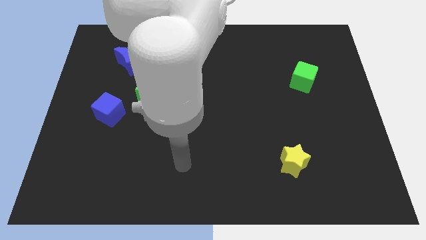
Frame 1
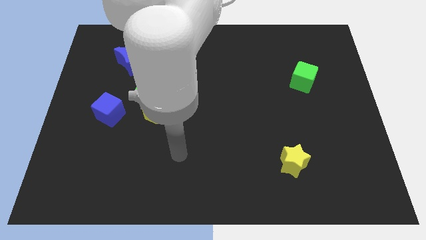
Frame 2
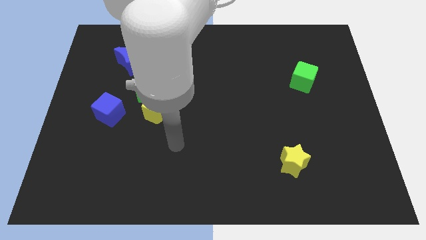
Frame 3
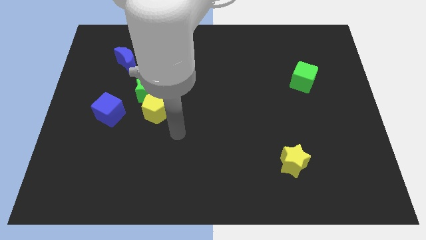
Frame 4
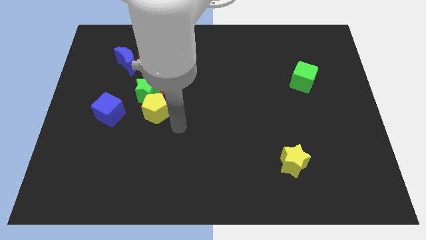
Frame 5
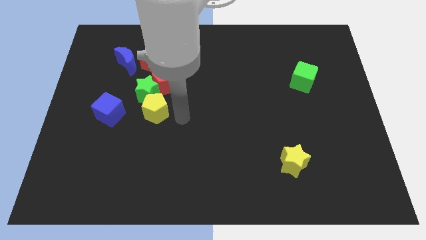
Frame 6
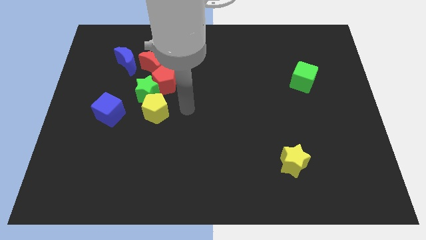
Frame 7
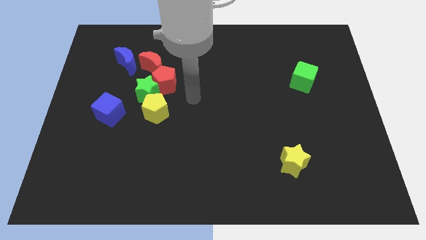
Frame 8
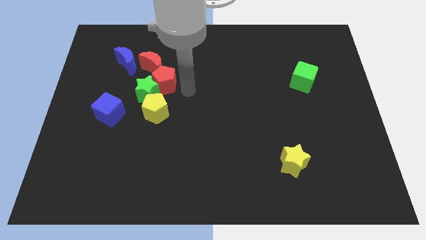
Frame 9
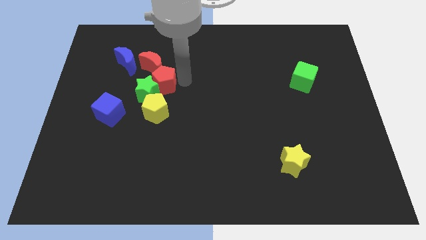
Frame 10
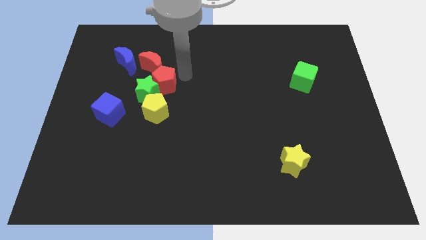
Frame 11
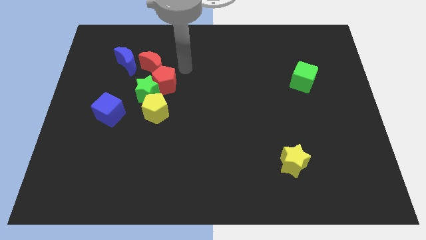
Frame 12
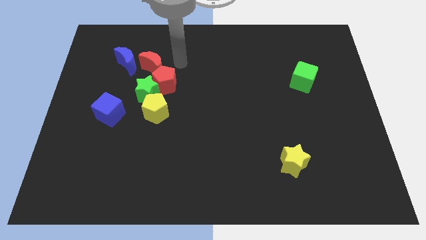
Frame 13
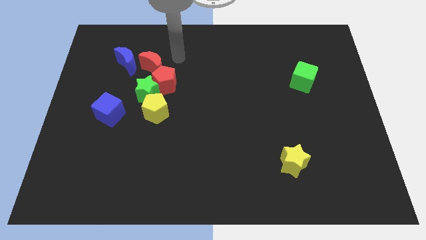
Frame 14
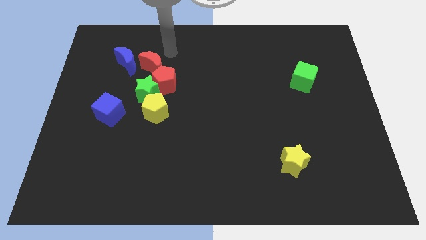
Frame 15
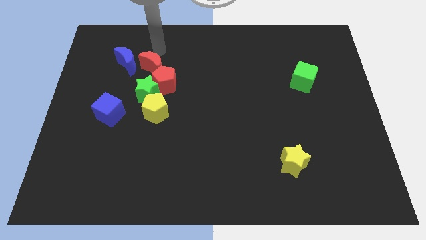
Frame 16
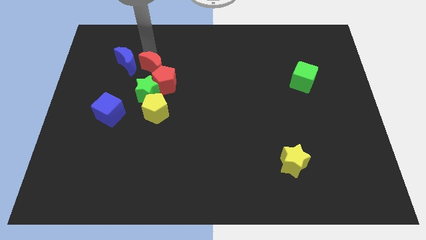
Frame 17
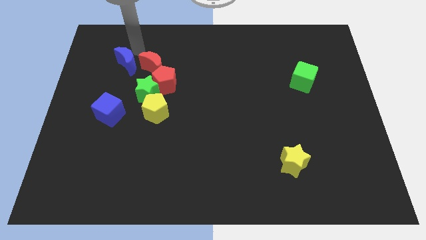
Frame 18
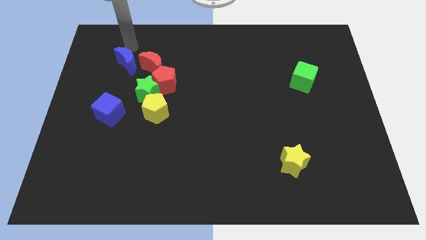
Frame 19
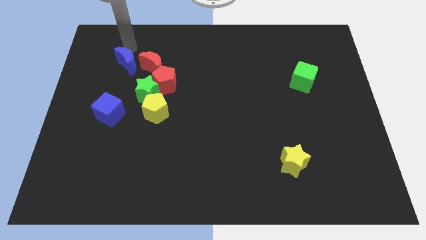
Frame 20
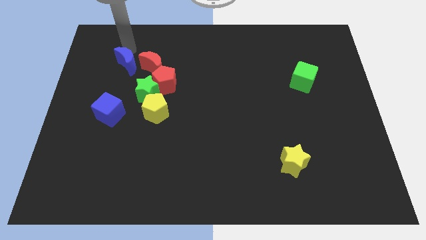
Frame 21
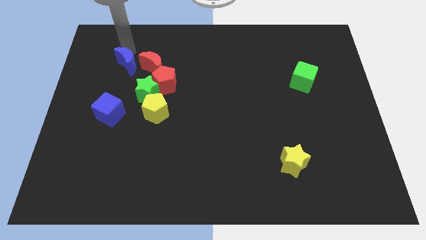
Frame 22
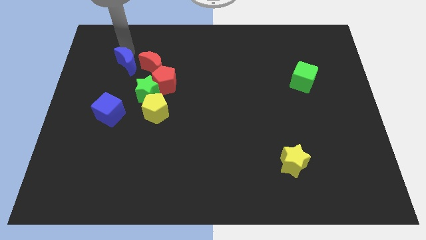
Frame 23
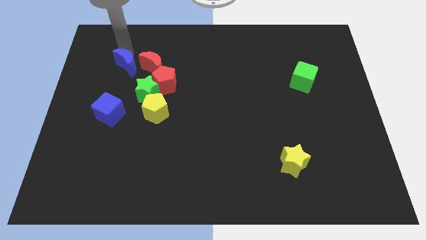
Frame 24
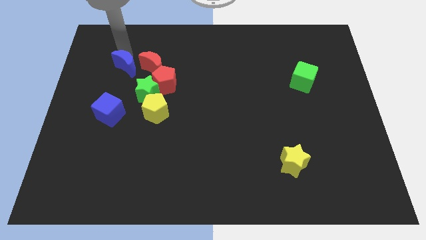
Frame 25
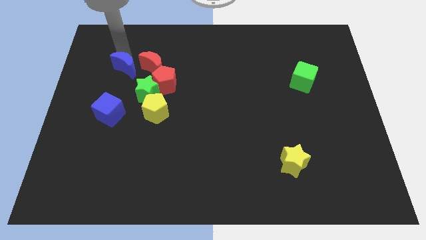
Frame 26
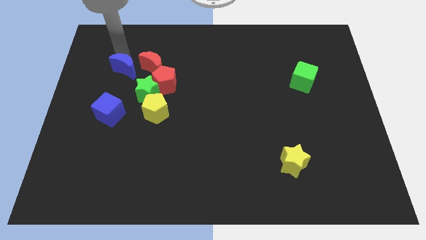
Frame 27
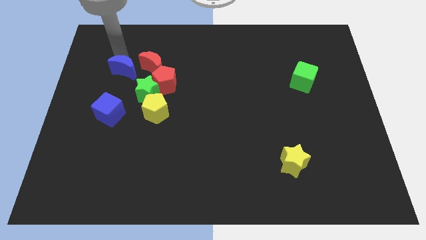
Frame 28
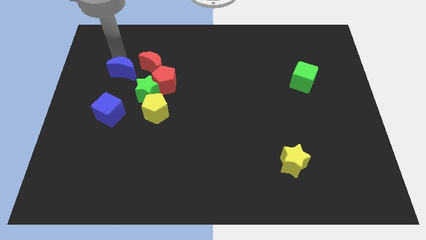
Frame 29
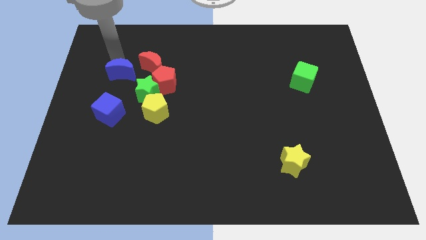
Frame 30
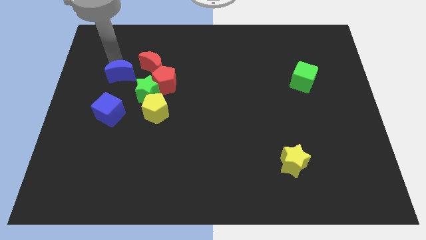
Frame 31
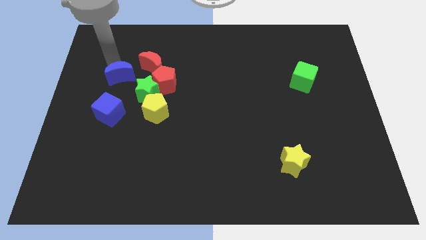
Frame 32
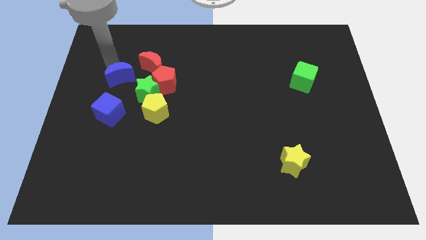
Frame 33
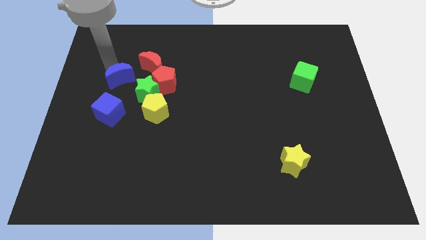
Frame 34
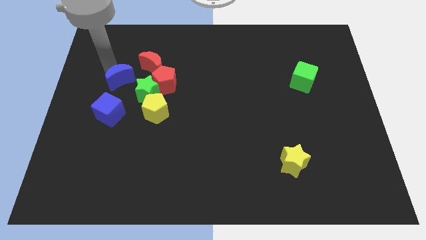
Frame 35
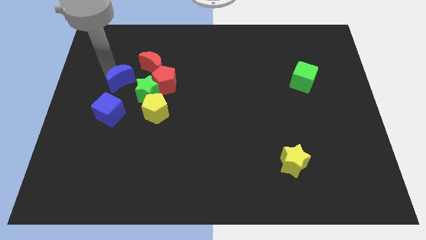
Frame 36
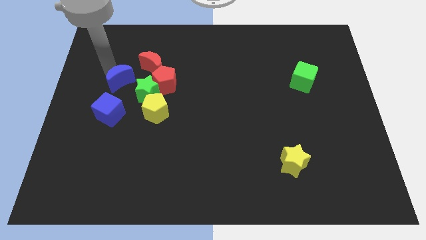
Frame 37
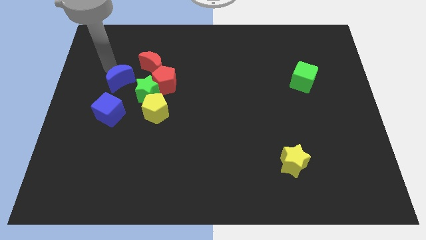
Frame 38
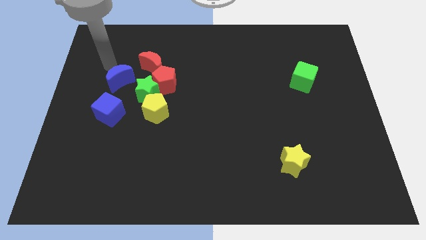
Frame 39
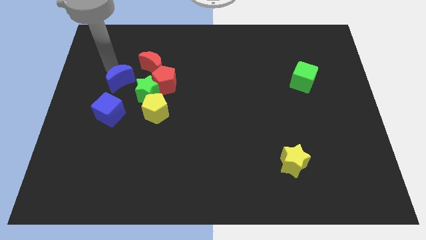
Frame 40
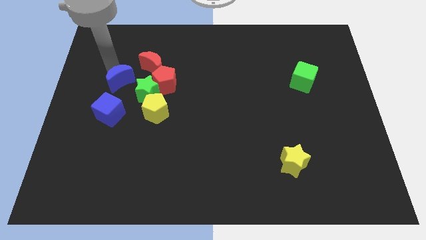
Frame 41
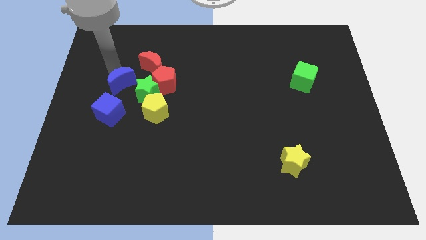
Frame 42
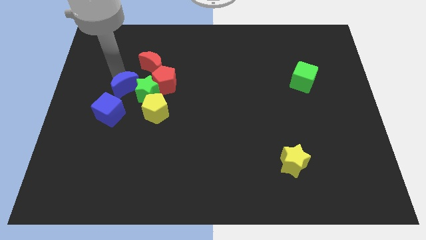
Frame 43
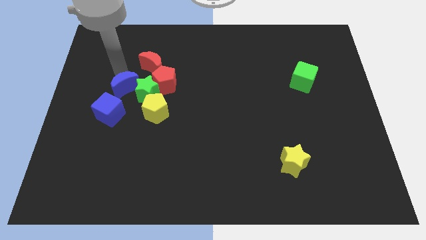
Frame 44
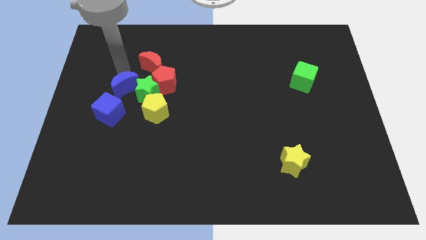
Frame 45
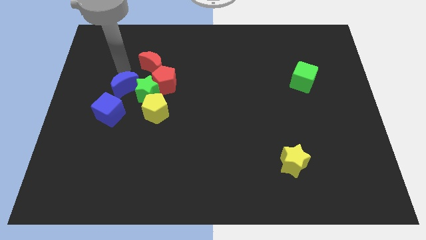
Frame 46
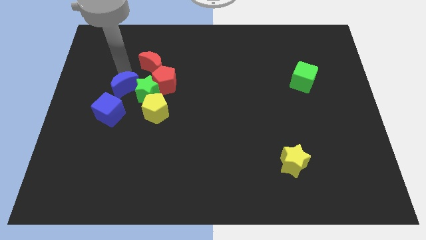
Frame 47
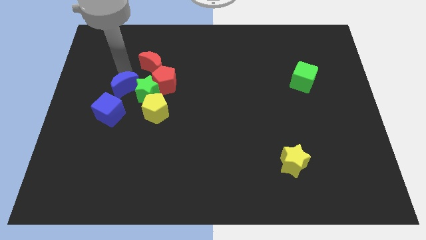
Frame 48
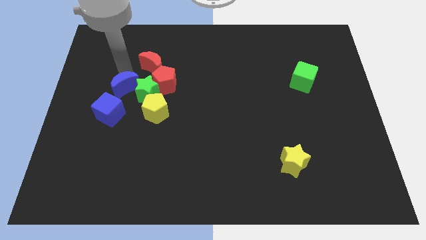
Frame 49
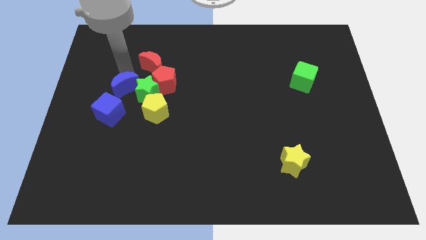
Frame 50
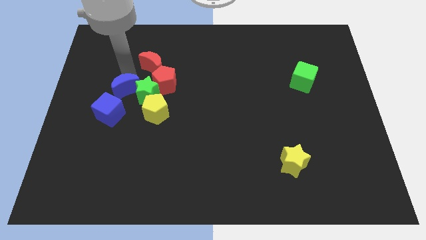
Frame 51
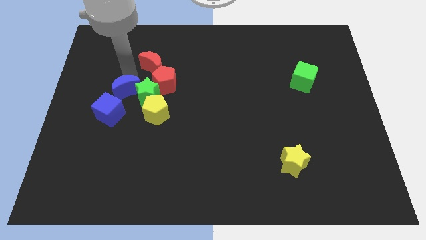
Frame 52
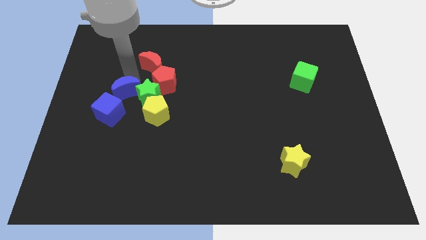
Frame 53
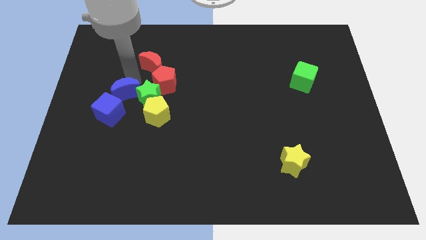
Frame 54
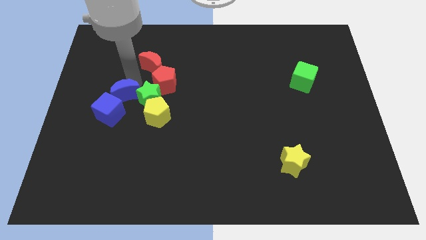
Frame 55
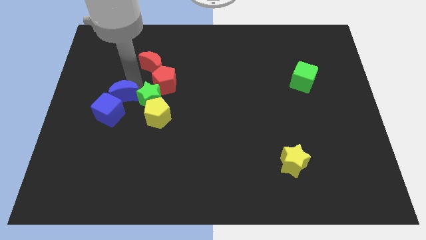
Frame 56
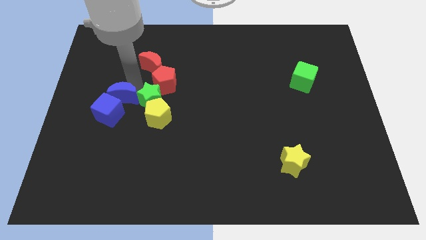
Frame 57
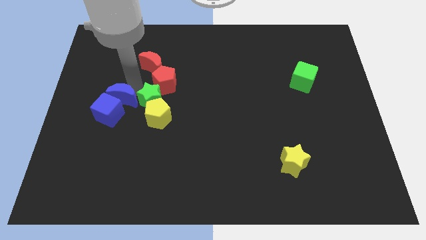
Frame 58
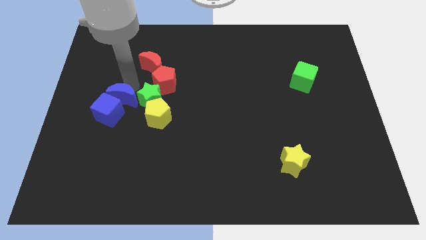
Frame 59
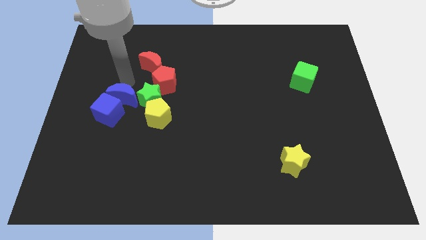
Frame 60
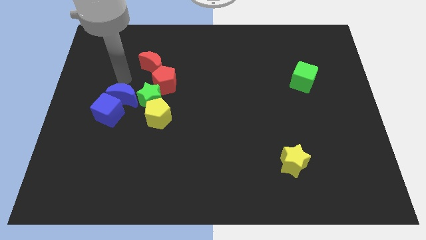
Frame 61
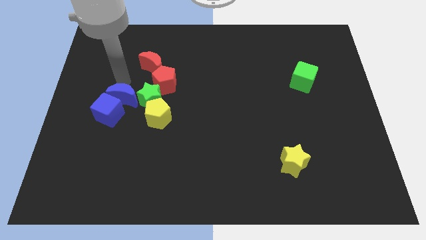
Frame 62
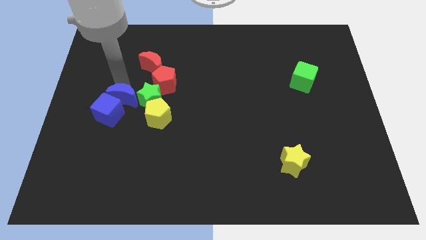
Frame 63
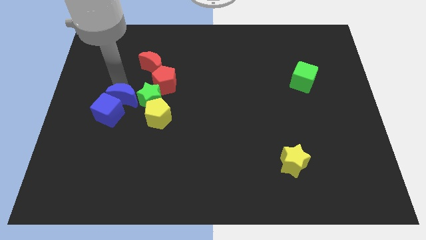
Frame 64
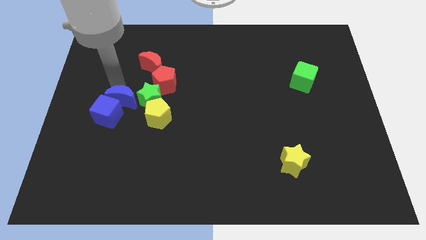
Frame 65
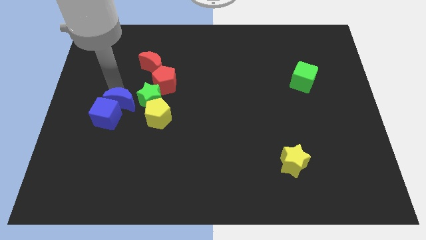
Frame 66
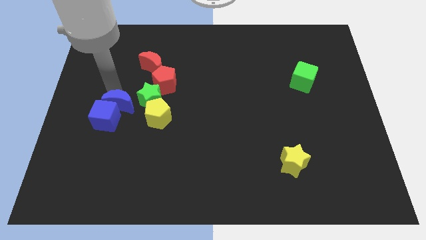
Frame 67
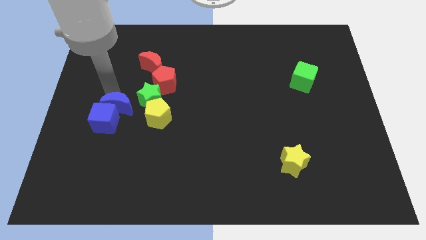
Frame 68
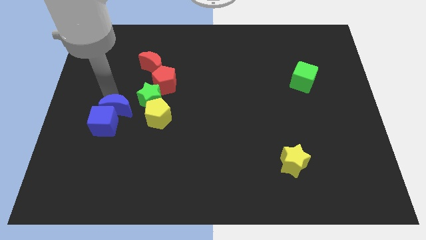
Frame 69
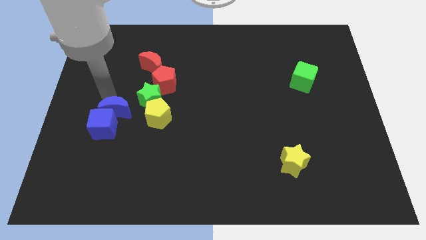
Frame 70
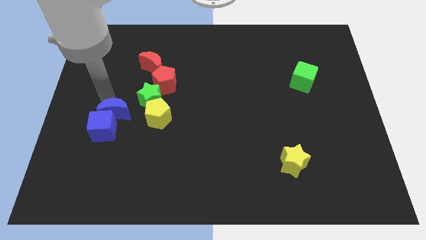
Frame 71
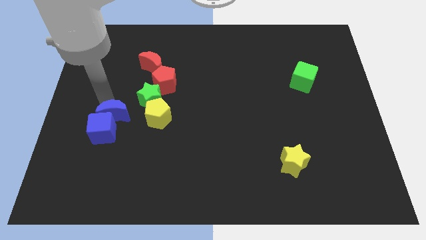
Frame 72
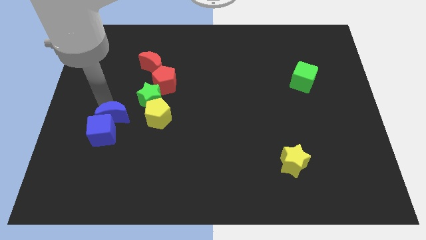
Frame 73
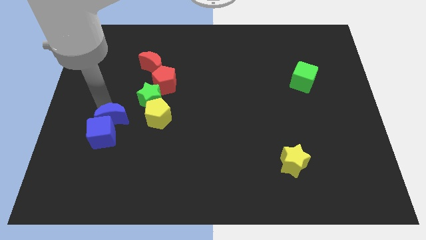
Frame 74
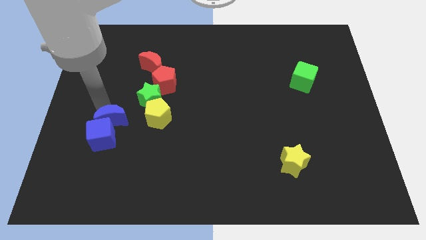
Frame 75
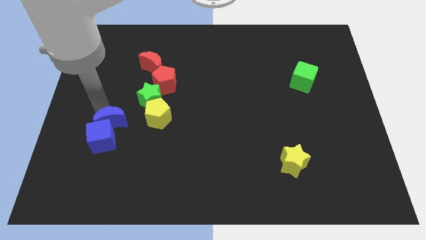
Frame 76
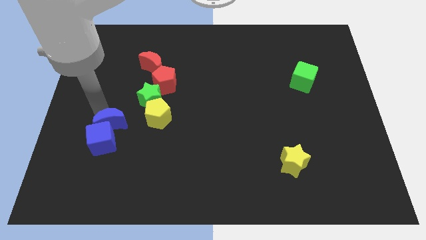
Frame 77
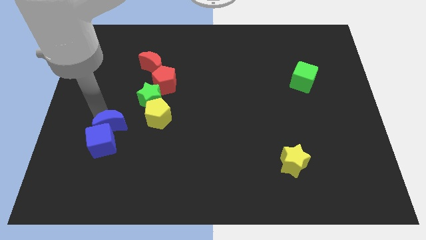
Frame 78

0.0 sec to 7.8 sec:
push the blue moon downwards

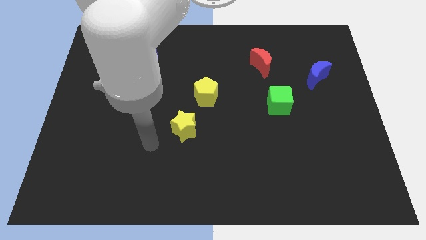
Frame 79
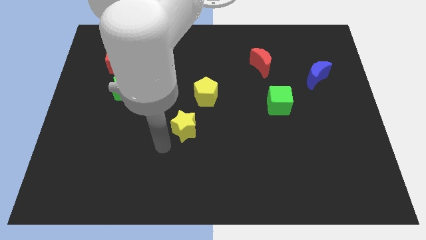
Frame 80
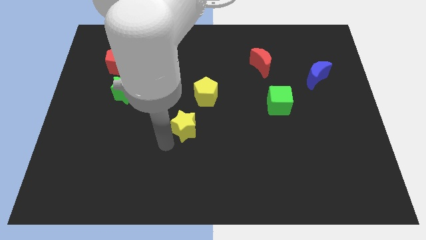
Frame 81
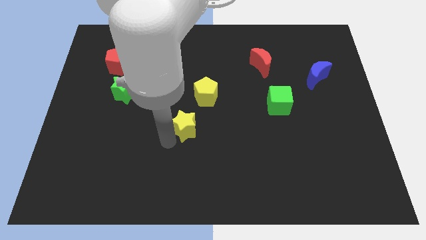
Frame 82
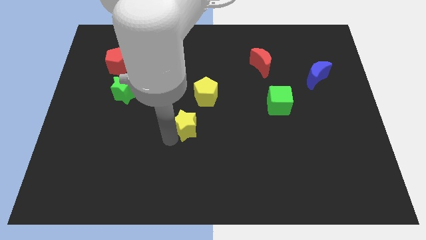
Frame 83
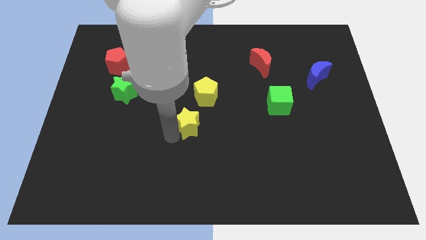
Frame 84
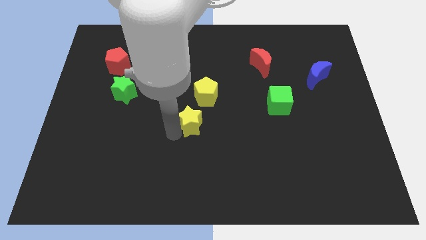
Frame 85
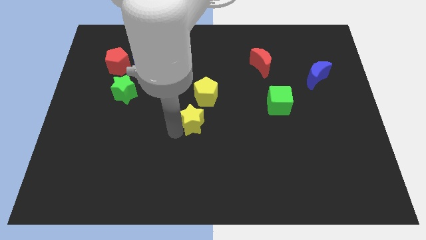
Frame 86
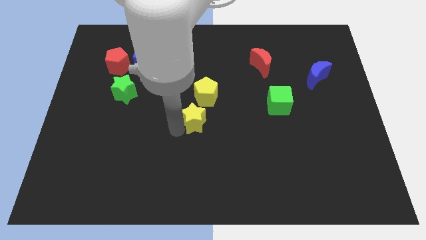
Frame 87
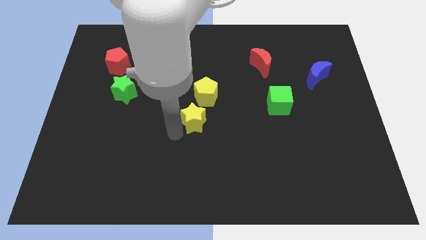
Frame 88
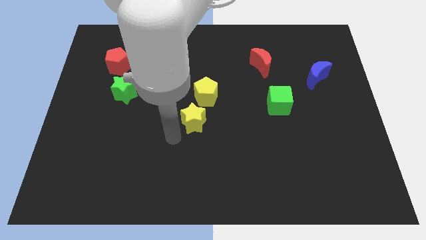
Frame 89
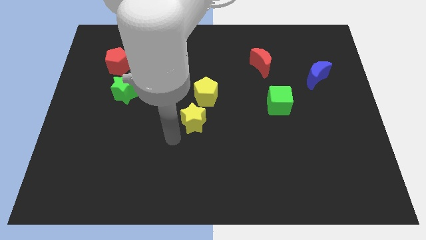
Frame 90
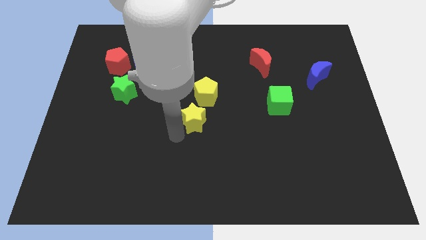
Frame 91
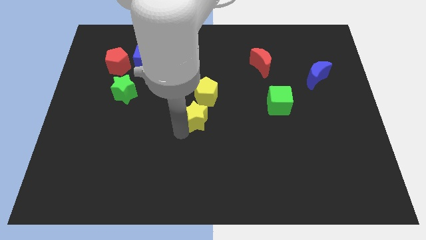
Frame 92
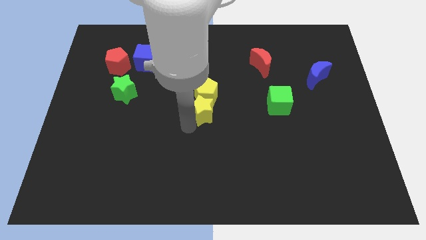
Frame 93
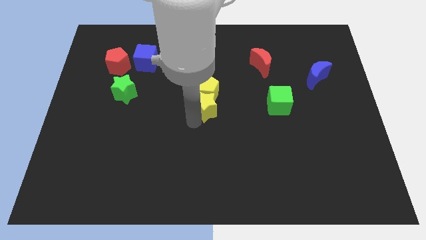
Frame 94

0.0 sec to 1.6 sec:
slide the yellow star up and to the right a little bit
